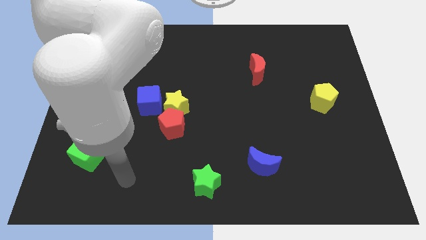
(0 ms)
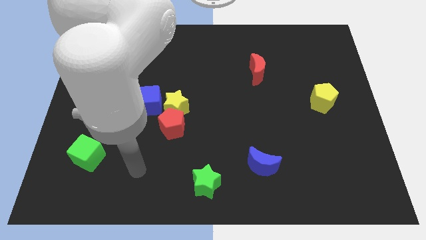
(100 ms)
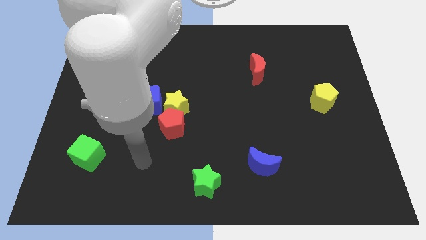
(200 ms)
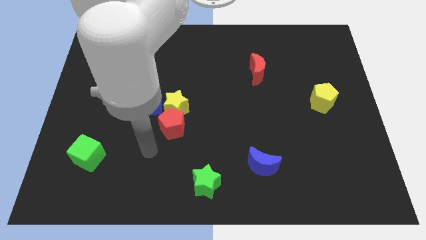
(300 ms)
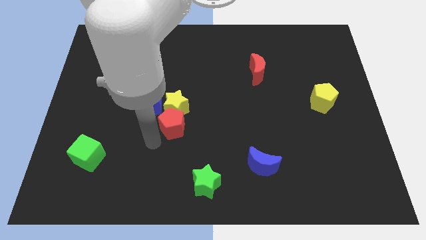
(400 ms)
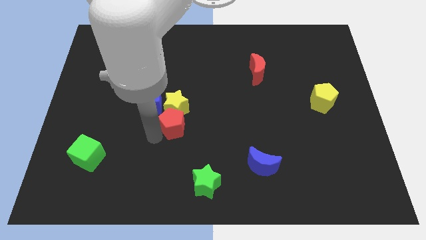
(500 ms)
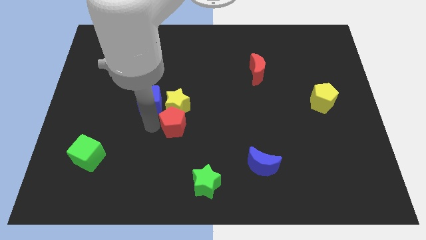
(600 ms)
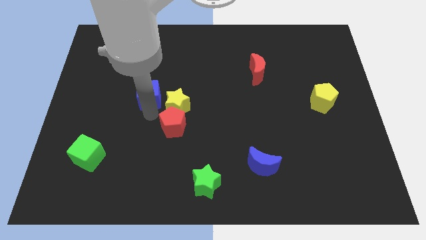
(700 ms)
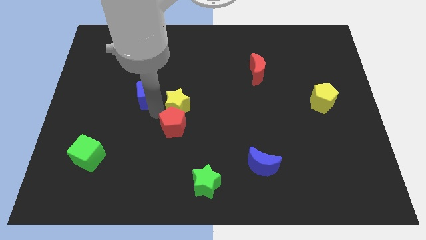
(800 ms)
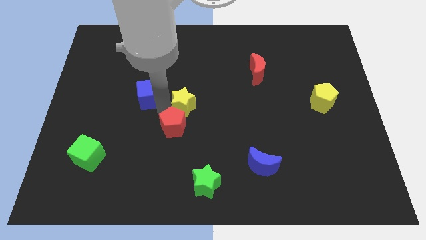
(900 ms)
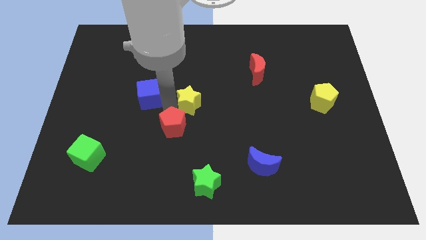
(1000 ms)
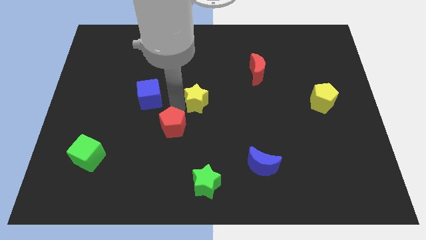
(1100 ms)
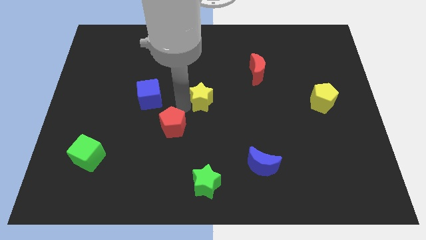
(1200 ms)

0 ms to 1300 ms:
move the yellow star away from the red pentagon and blue cube

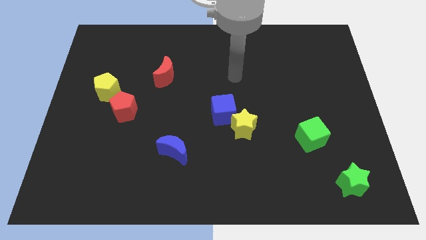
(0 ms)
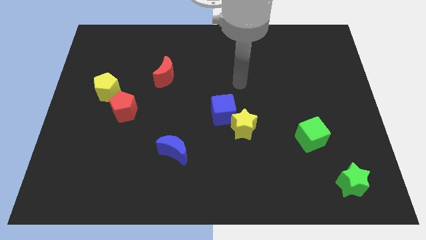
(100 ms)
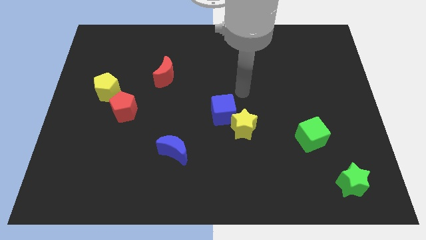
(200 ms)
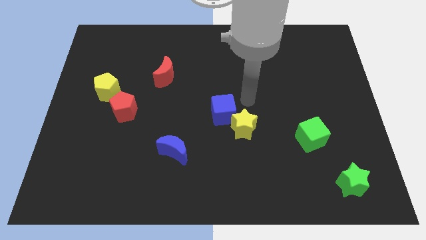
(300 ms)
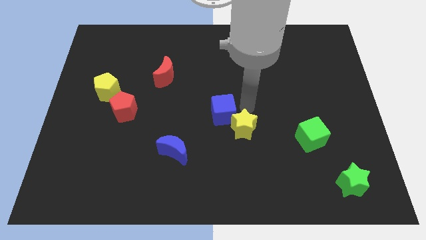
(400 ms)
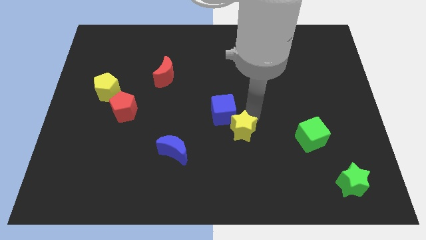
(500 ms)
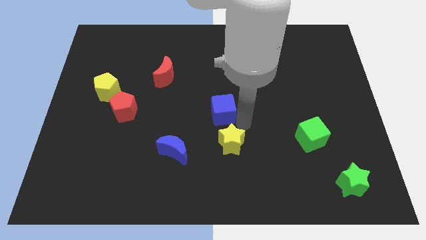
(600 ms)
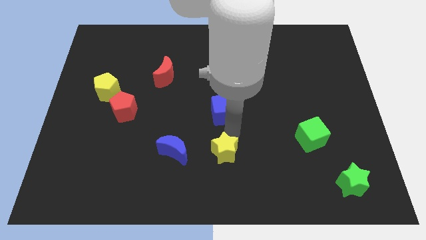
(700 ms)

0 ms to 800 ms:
pull the blue cube apart from the yellow star

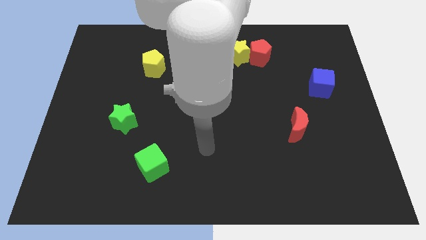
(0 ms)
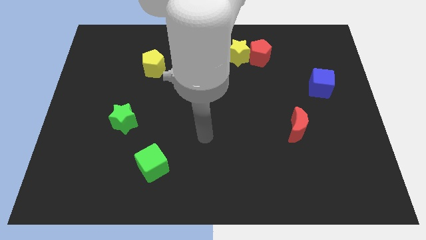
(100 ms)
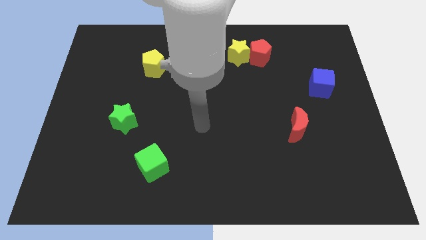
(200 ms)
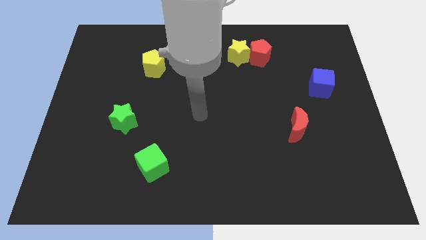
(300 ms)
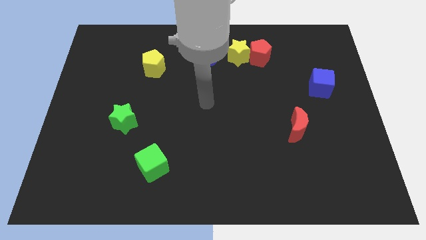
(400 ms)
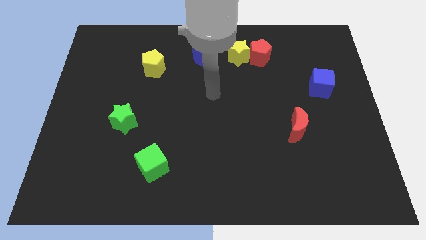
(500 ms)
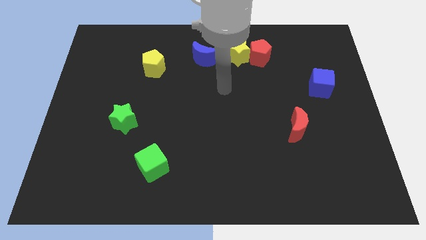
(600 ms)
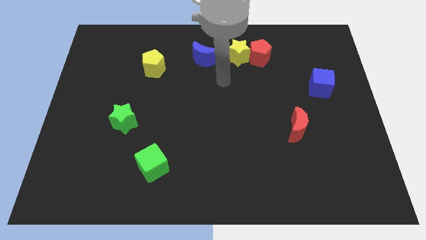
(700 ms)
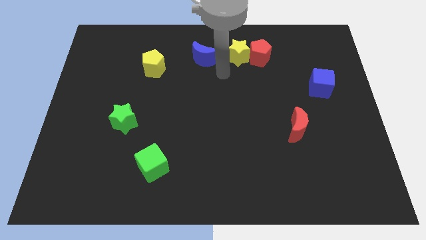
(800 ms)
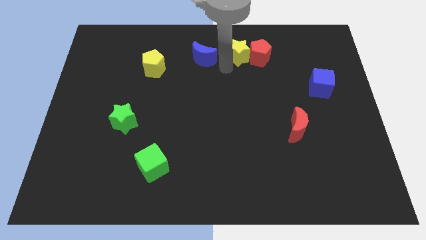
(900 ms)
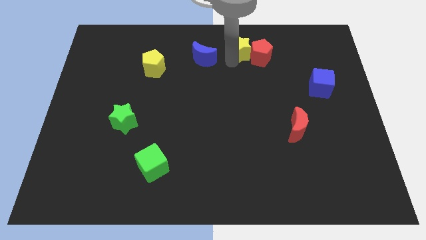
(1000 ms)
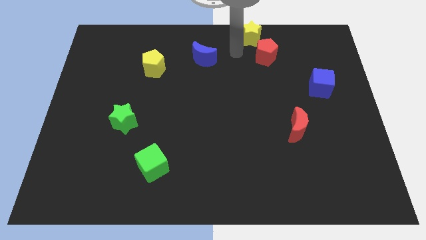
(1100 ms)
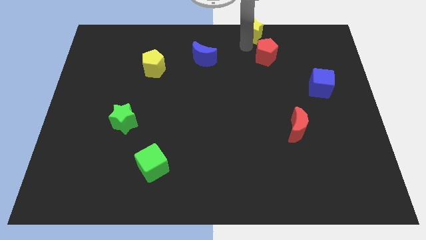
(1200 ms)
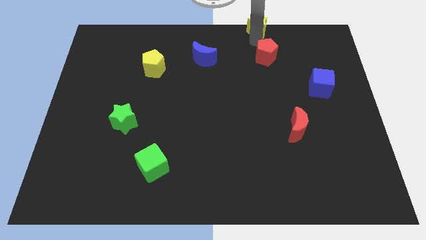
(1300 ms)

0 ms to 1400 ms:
pull the red pentagon apart from the yellow star

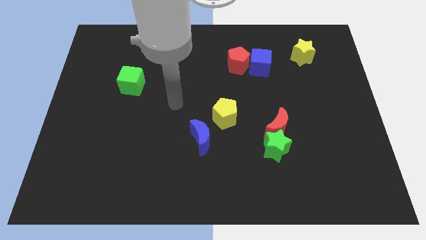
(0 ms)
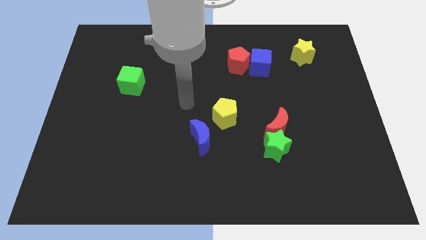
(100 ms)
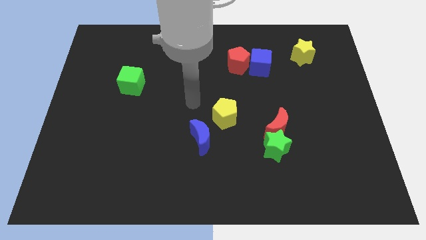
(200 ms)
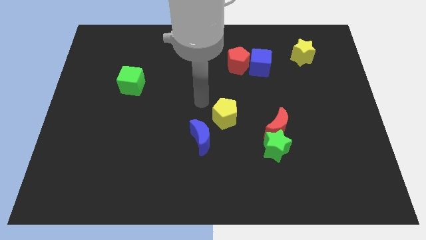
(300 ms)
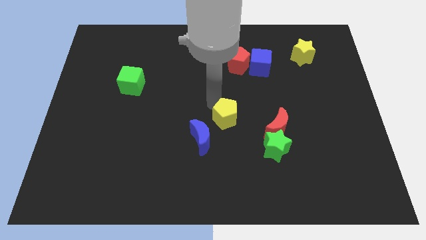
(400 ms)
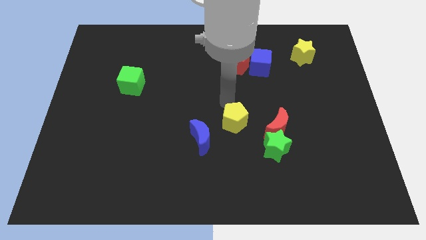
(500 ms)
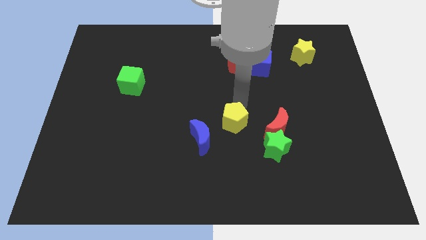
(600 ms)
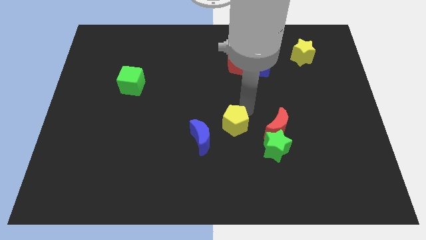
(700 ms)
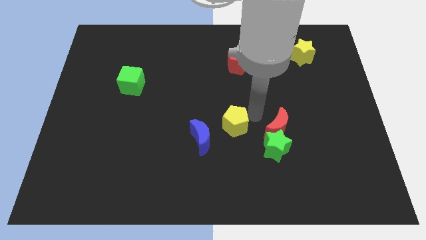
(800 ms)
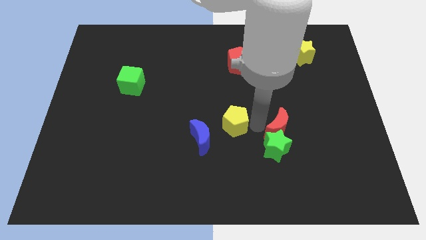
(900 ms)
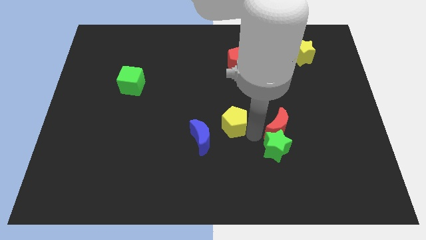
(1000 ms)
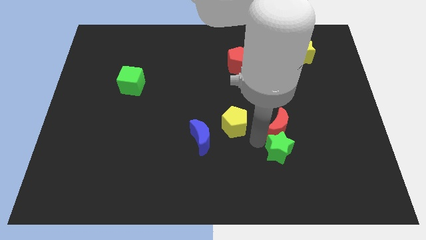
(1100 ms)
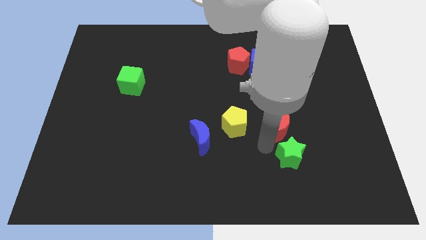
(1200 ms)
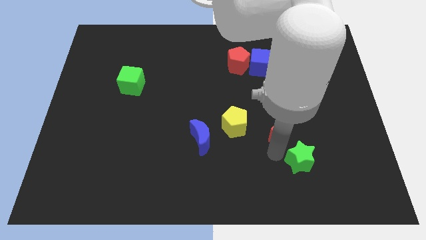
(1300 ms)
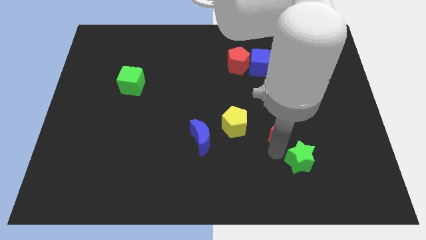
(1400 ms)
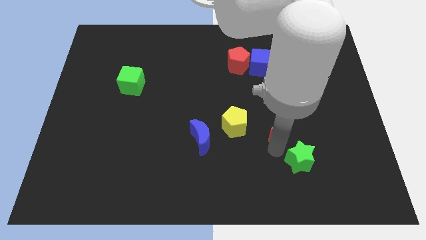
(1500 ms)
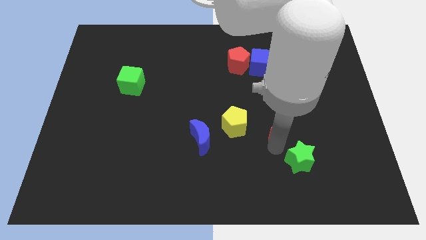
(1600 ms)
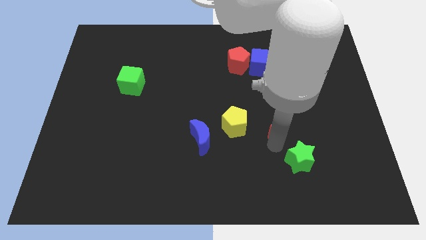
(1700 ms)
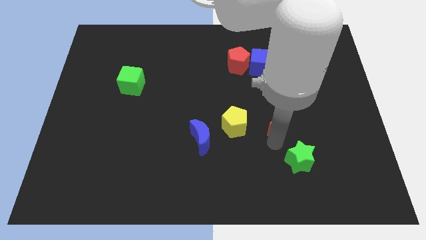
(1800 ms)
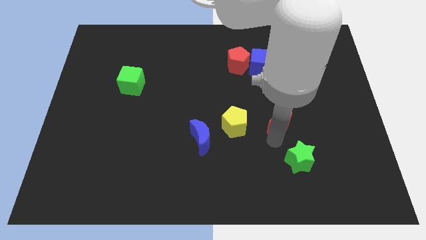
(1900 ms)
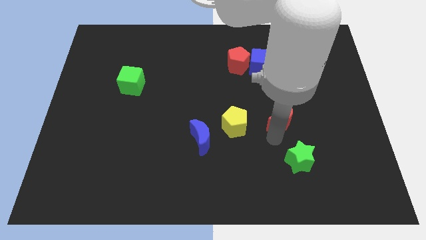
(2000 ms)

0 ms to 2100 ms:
separate the red moon from the green star

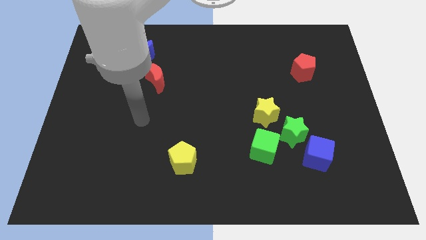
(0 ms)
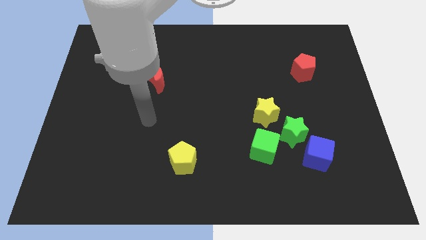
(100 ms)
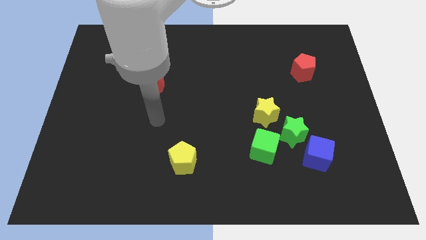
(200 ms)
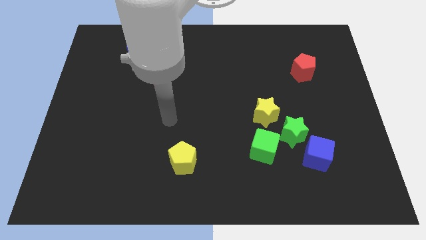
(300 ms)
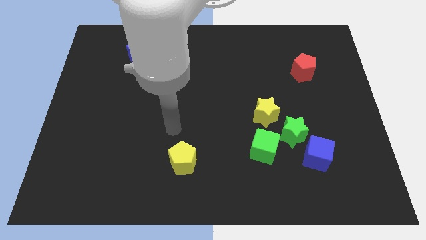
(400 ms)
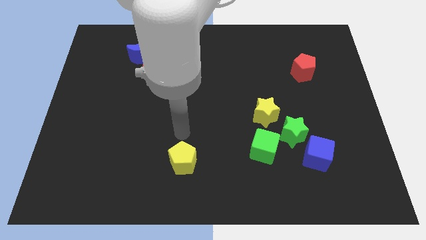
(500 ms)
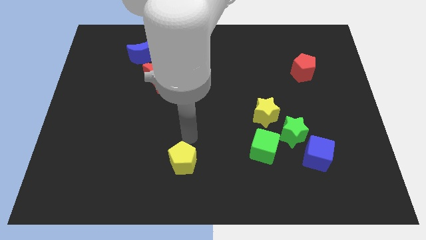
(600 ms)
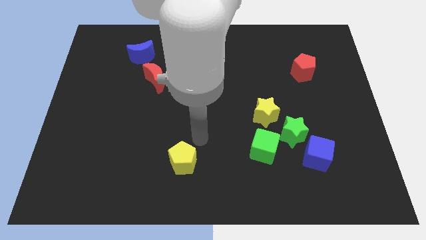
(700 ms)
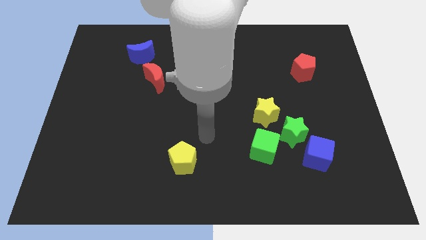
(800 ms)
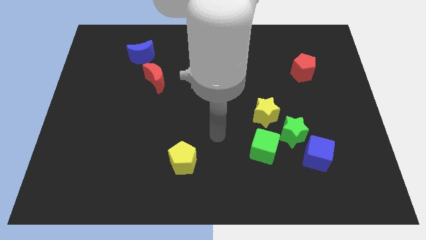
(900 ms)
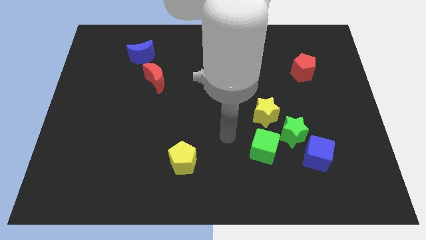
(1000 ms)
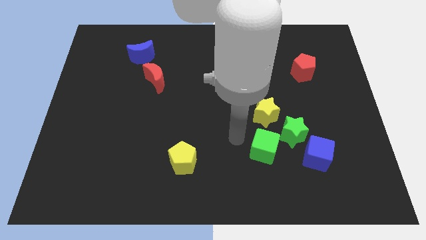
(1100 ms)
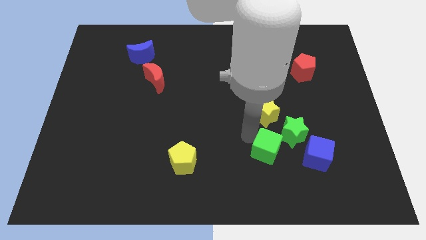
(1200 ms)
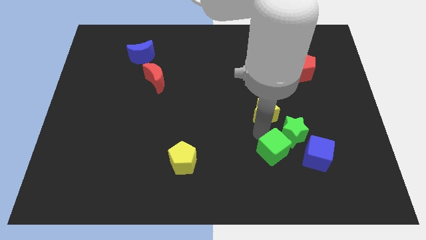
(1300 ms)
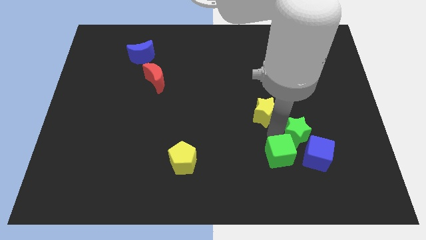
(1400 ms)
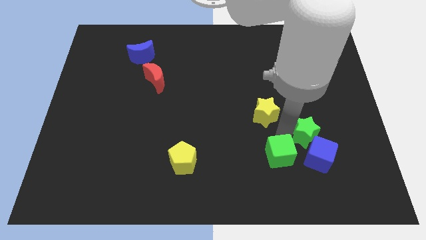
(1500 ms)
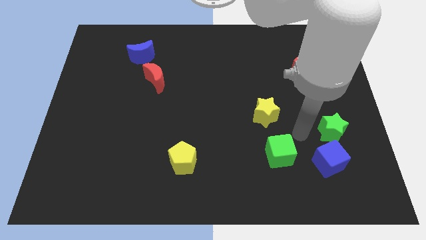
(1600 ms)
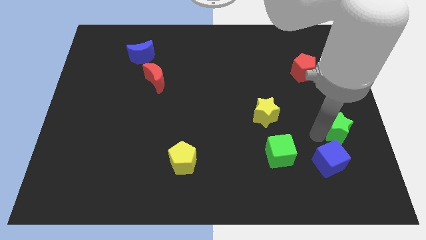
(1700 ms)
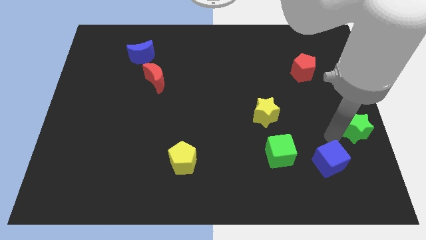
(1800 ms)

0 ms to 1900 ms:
separate the blue cube from the green star

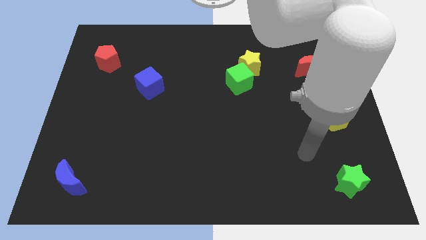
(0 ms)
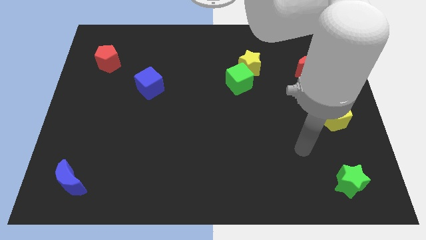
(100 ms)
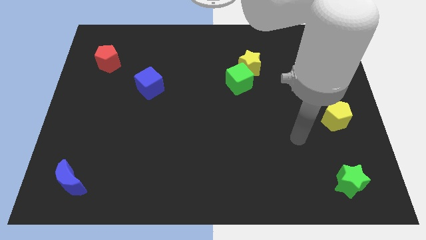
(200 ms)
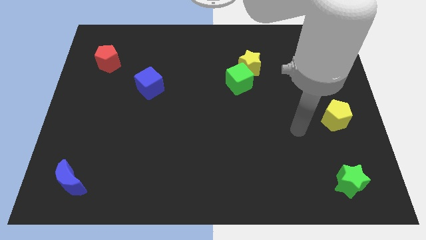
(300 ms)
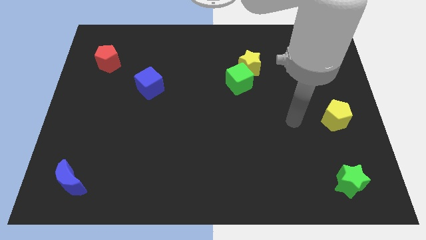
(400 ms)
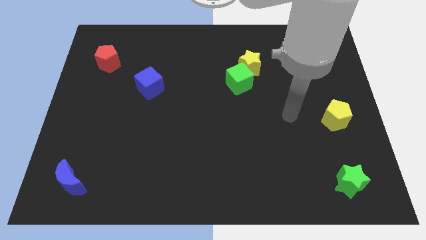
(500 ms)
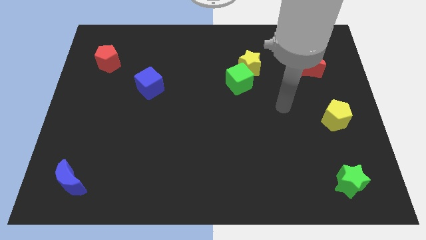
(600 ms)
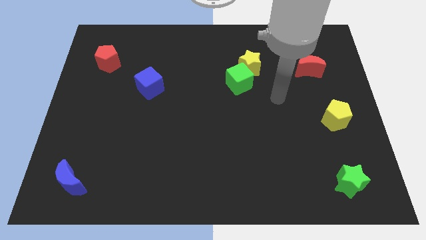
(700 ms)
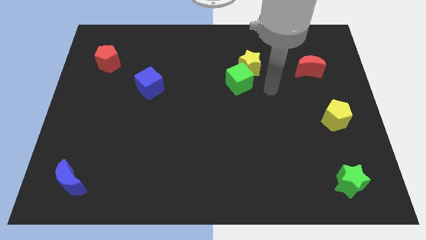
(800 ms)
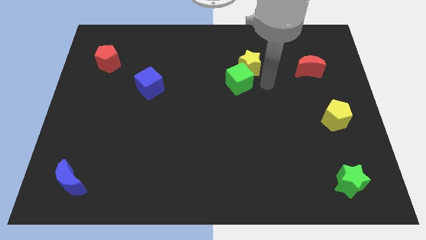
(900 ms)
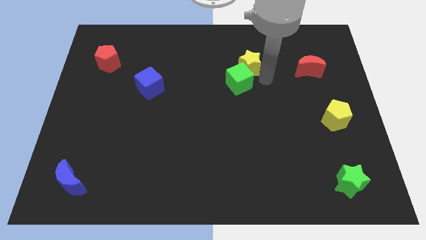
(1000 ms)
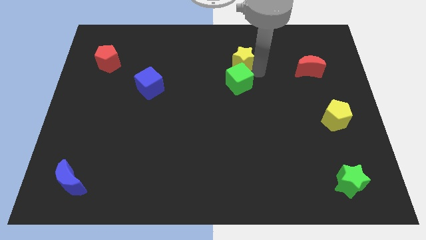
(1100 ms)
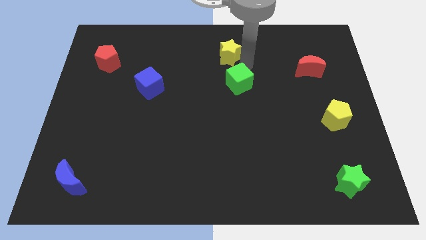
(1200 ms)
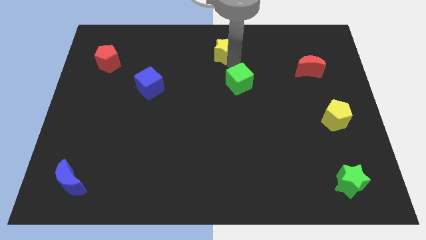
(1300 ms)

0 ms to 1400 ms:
move the green cube away from the yellow star

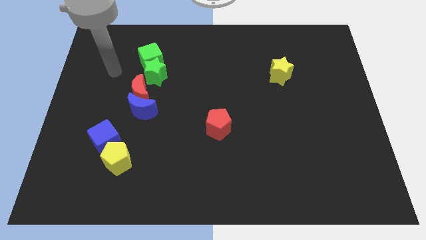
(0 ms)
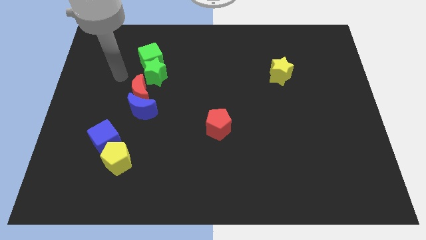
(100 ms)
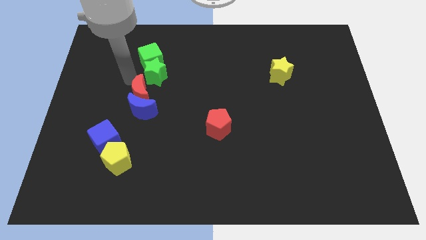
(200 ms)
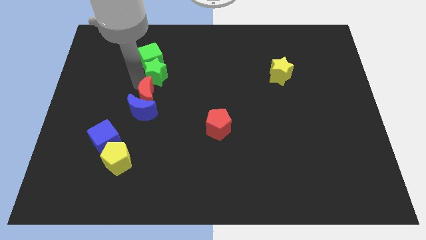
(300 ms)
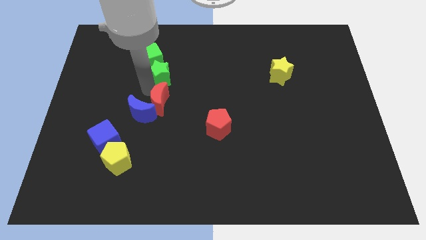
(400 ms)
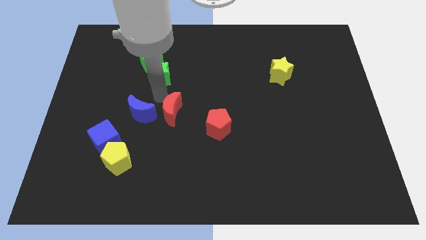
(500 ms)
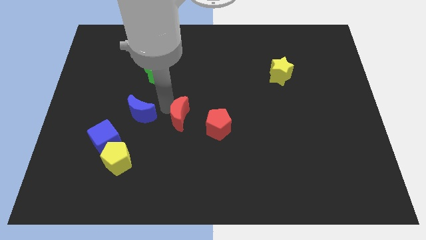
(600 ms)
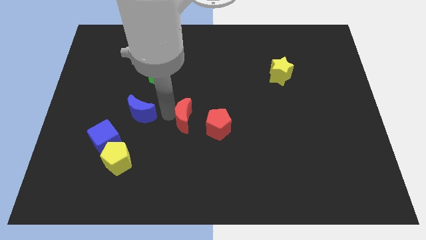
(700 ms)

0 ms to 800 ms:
move the blue moon away from the red moon
